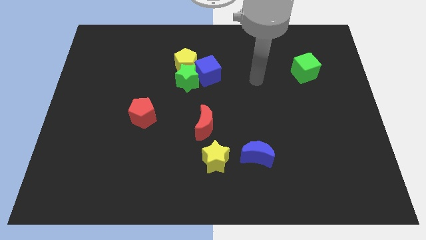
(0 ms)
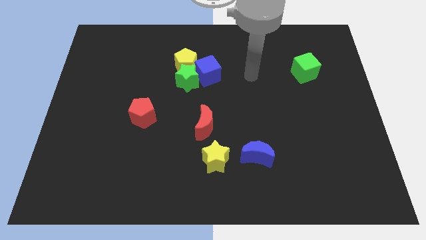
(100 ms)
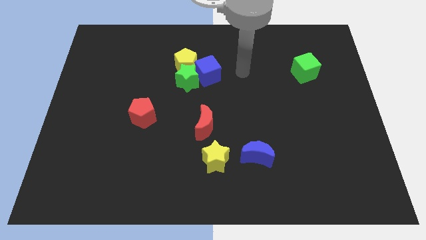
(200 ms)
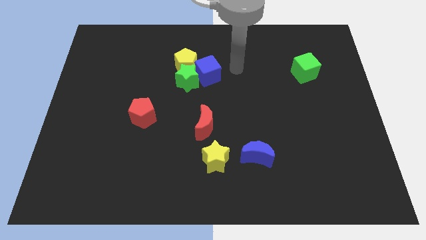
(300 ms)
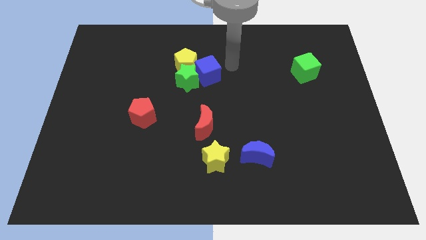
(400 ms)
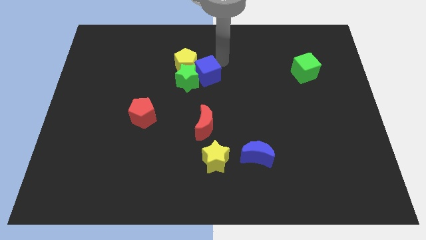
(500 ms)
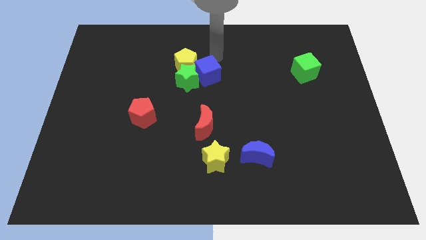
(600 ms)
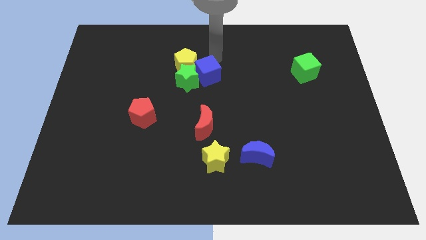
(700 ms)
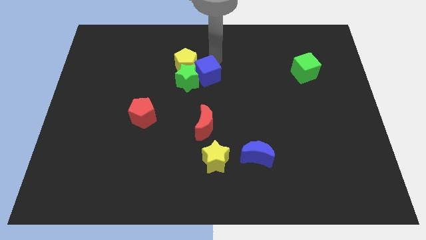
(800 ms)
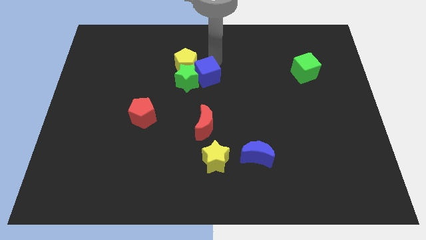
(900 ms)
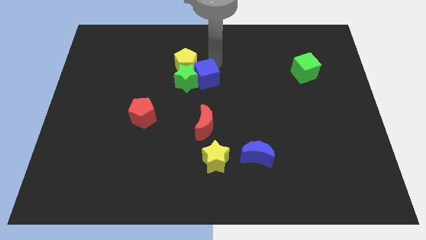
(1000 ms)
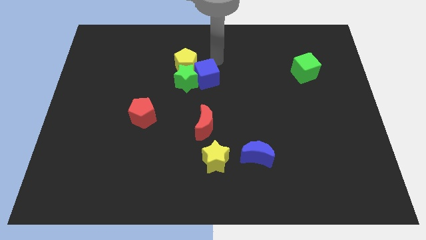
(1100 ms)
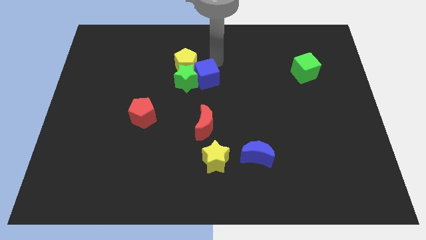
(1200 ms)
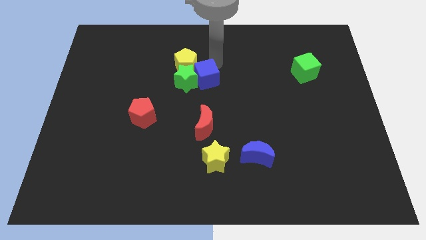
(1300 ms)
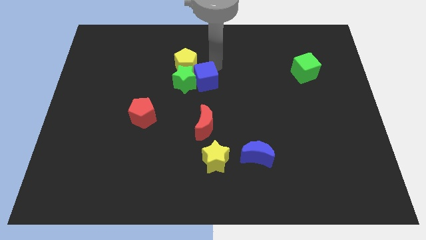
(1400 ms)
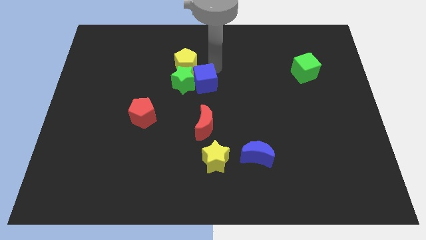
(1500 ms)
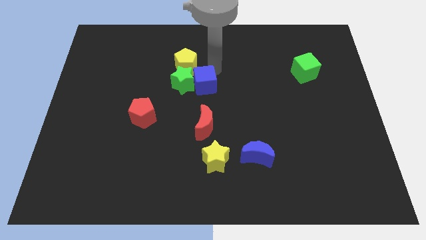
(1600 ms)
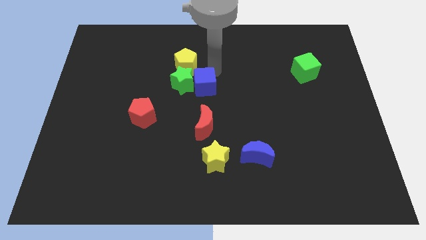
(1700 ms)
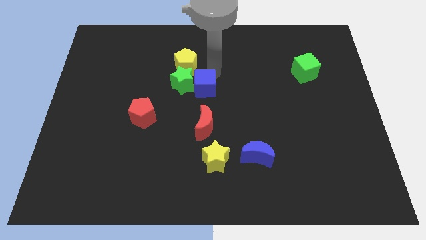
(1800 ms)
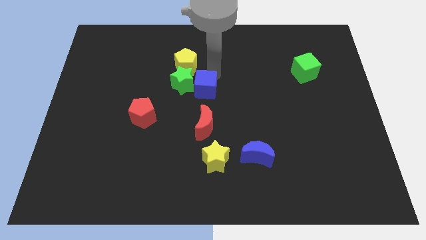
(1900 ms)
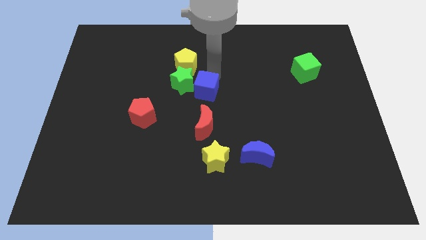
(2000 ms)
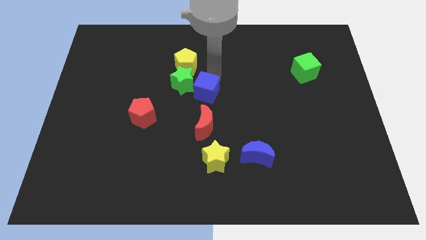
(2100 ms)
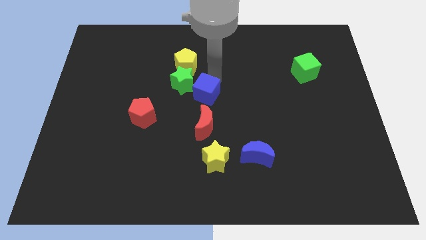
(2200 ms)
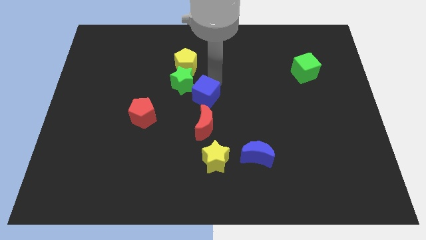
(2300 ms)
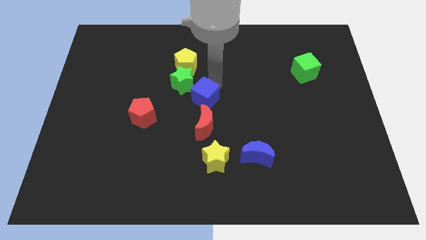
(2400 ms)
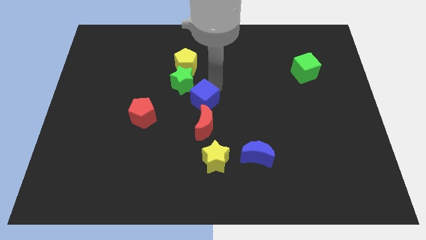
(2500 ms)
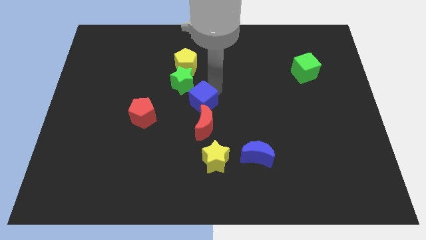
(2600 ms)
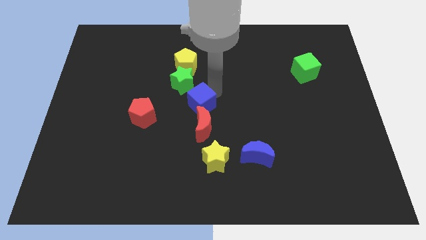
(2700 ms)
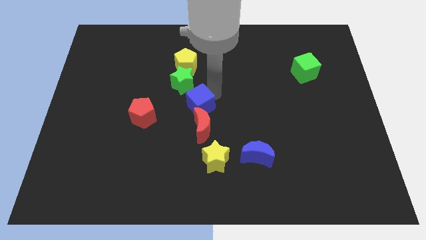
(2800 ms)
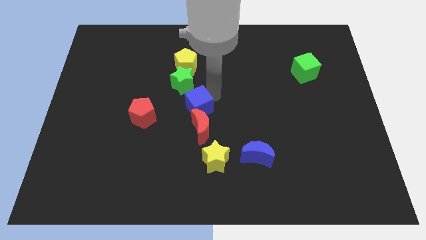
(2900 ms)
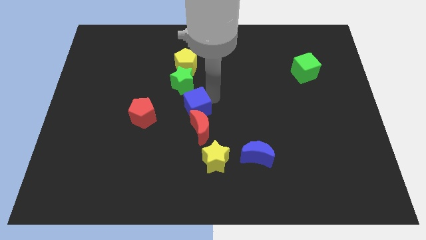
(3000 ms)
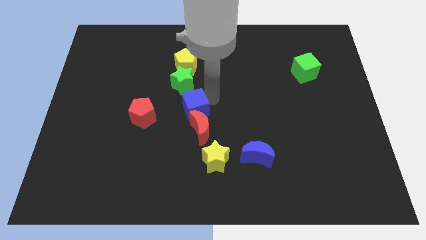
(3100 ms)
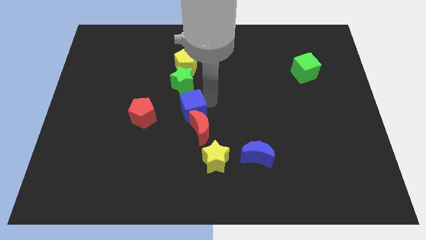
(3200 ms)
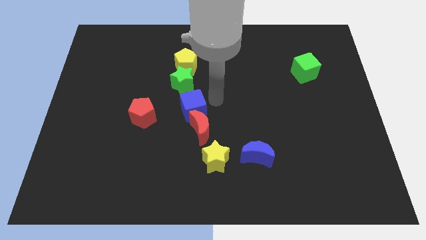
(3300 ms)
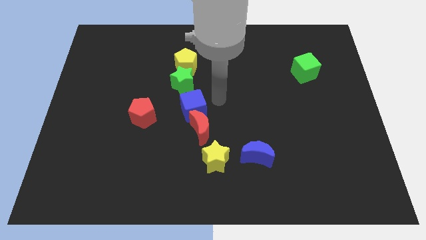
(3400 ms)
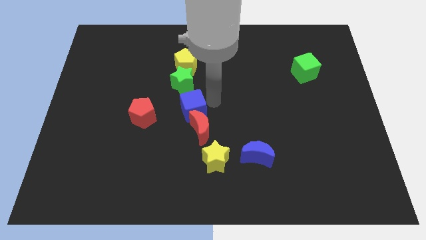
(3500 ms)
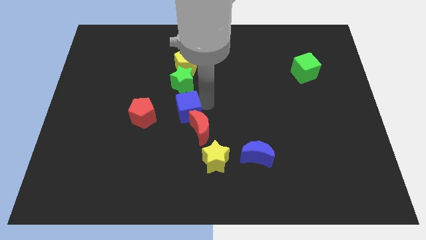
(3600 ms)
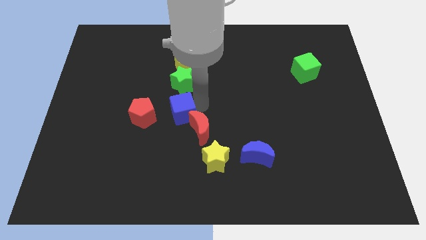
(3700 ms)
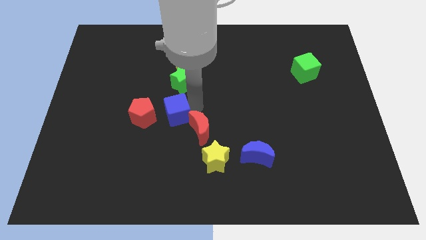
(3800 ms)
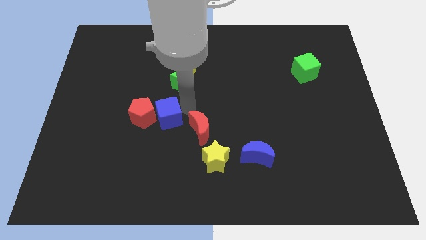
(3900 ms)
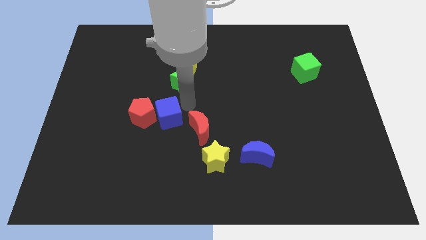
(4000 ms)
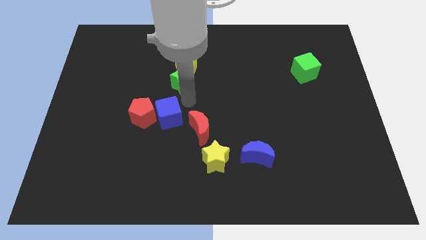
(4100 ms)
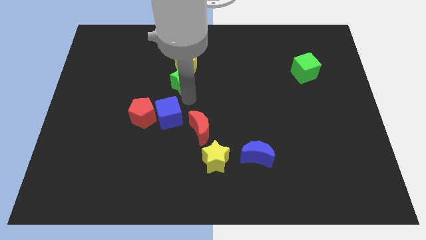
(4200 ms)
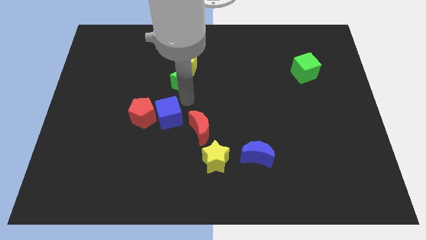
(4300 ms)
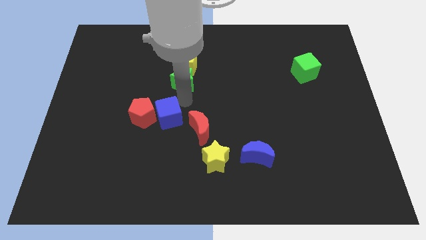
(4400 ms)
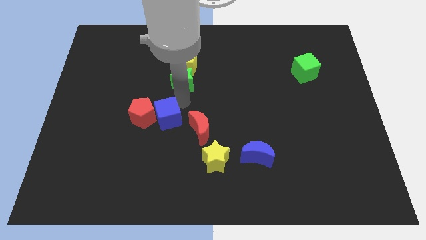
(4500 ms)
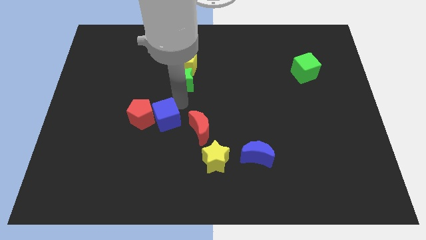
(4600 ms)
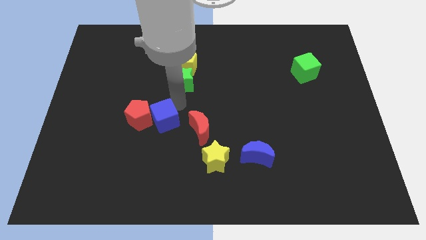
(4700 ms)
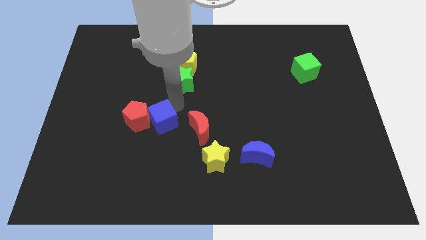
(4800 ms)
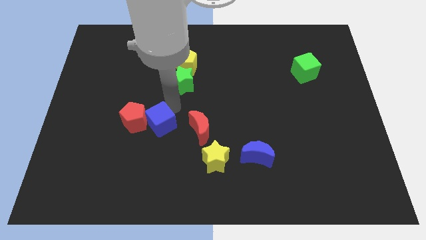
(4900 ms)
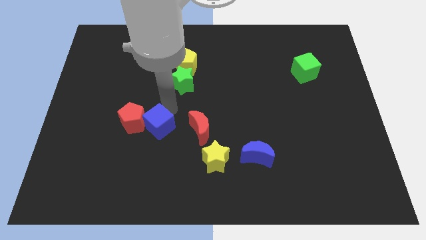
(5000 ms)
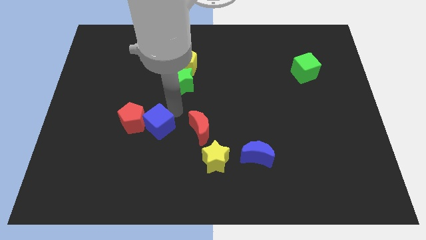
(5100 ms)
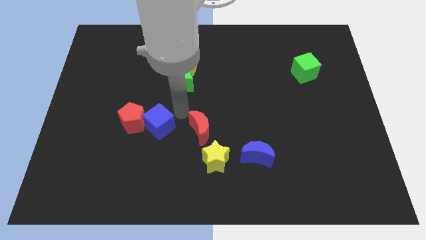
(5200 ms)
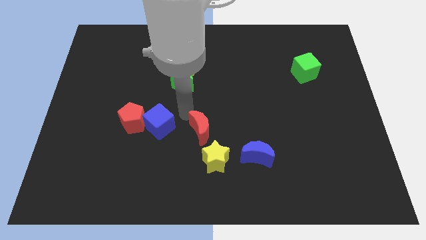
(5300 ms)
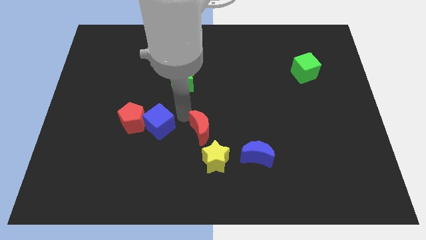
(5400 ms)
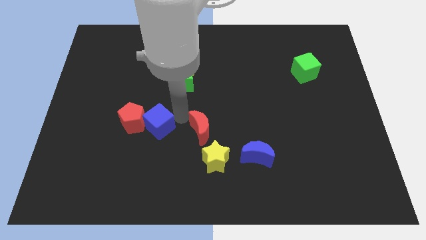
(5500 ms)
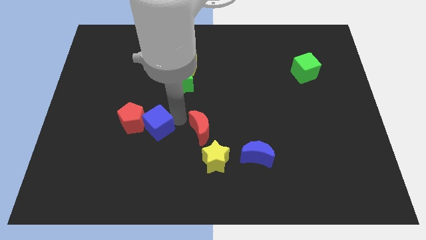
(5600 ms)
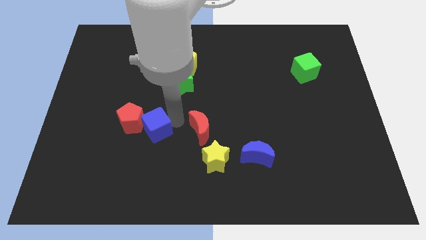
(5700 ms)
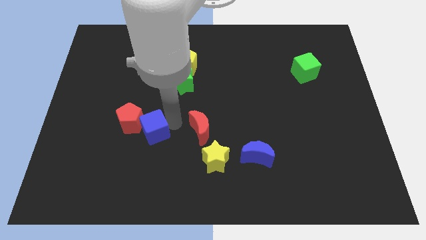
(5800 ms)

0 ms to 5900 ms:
move the blue cube down and to the left

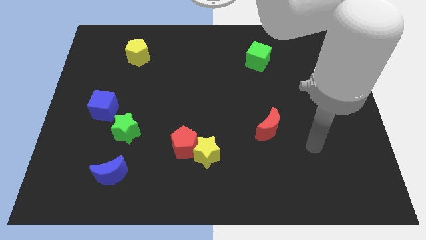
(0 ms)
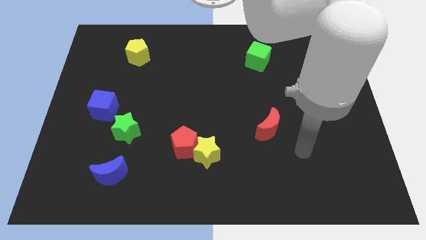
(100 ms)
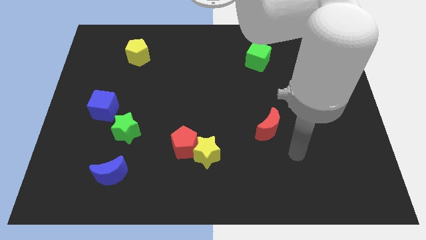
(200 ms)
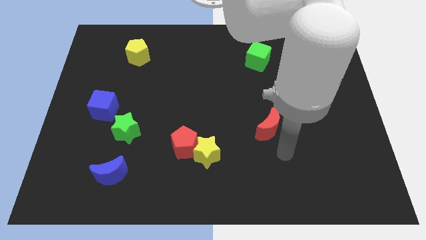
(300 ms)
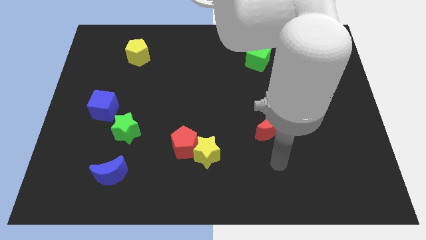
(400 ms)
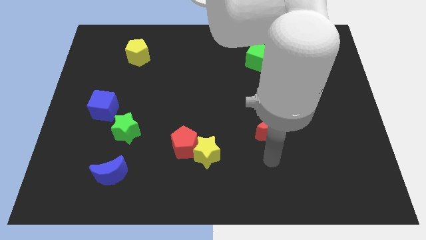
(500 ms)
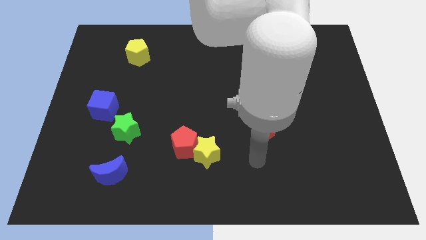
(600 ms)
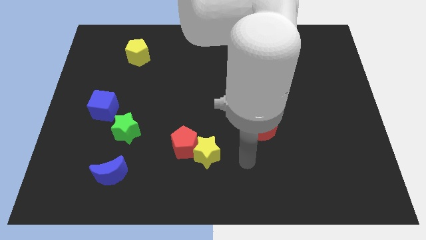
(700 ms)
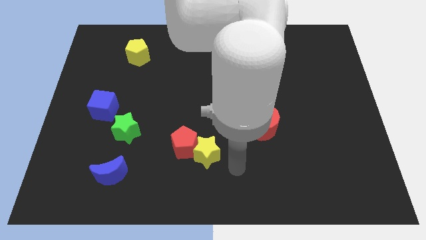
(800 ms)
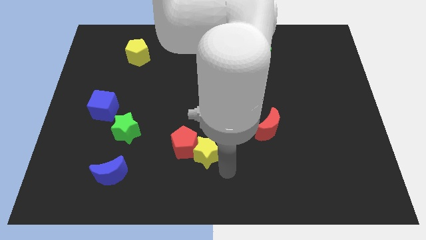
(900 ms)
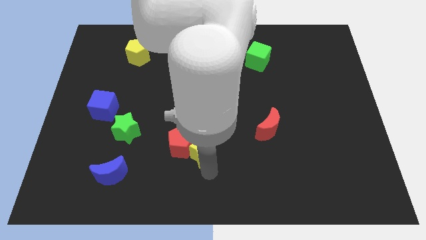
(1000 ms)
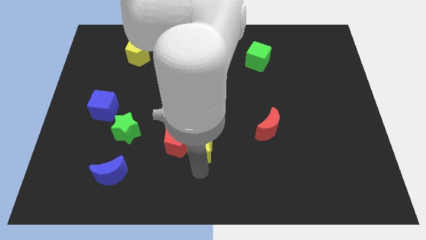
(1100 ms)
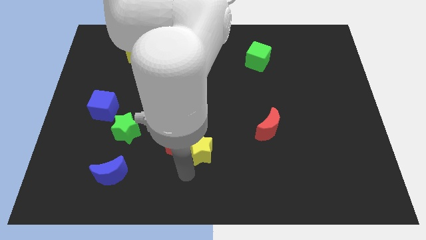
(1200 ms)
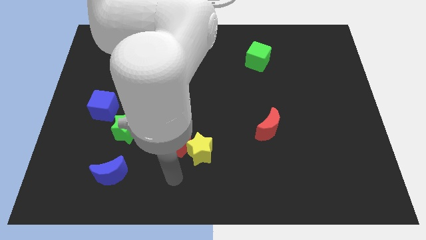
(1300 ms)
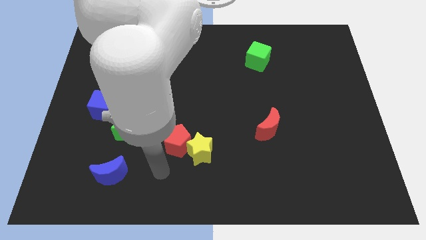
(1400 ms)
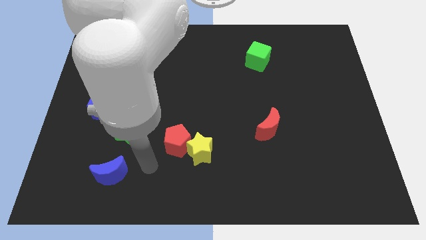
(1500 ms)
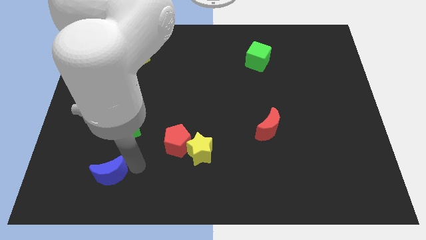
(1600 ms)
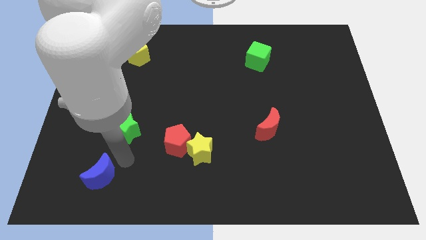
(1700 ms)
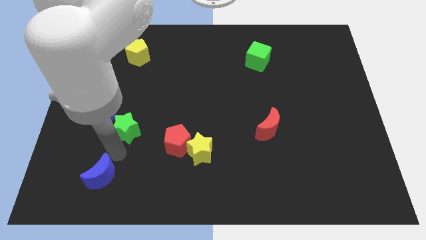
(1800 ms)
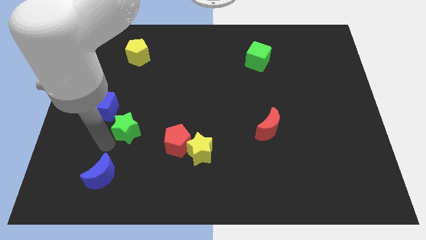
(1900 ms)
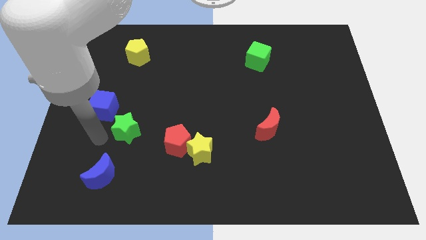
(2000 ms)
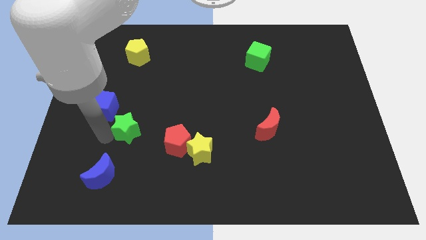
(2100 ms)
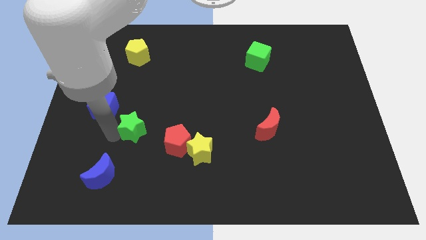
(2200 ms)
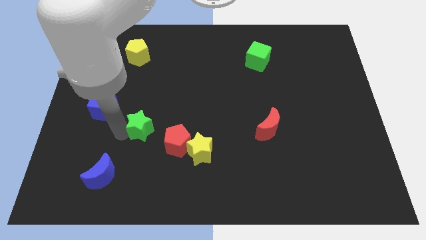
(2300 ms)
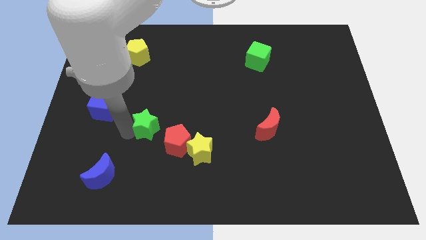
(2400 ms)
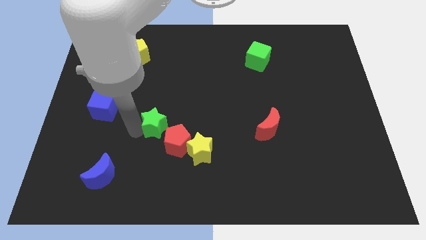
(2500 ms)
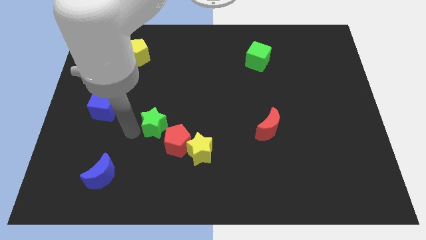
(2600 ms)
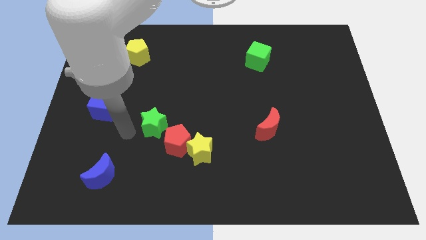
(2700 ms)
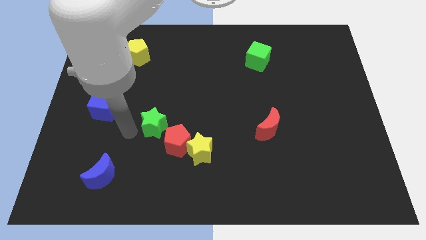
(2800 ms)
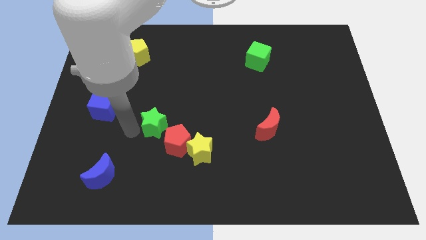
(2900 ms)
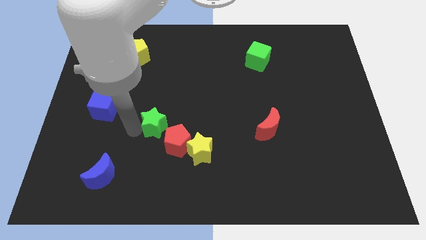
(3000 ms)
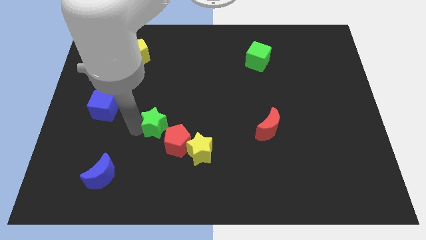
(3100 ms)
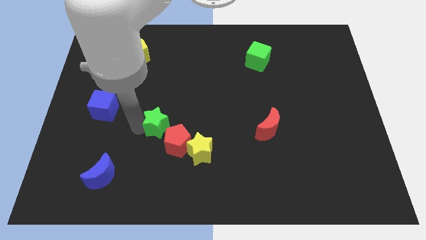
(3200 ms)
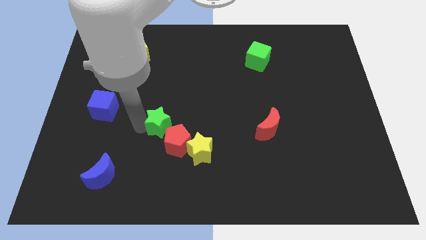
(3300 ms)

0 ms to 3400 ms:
push the green star to the right somewhat
